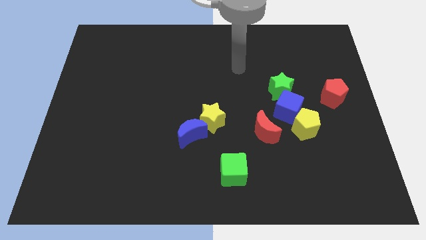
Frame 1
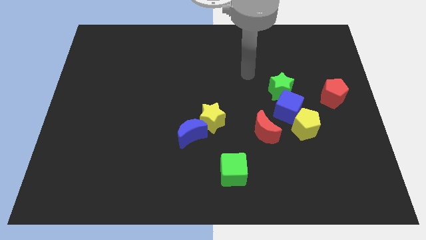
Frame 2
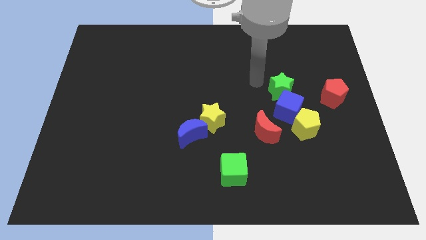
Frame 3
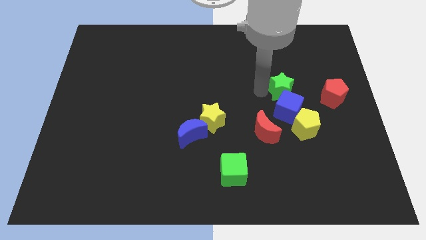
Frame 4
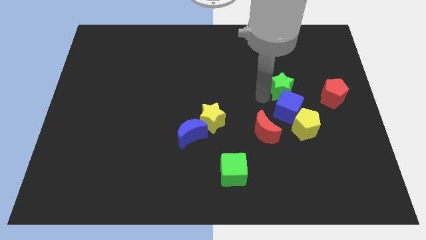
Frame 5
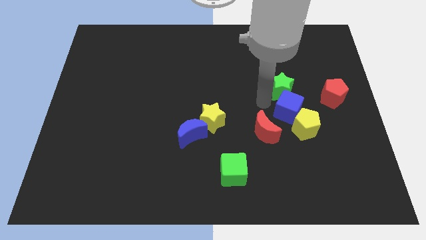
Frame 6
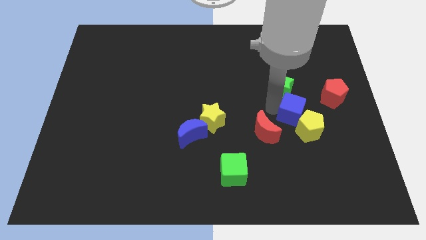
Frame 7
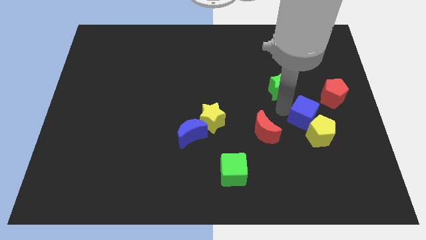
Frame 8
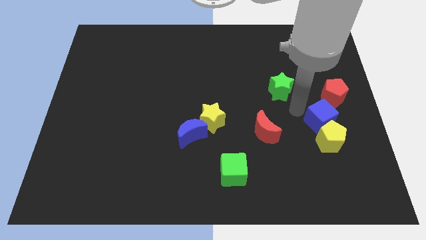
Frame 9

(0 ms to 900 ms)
pull the green star apart from the blue cube

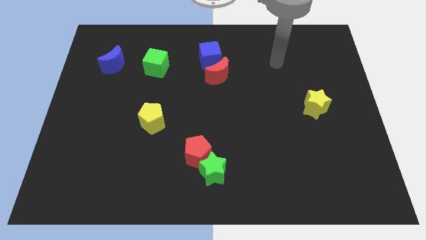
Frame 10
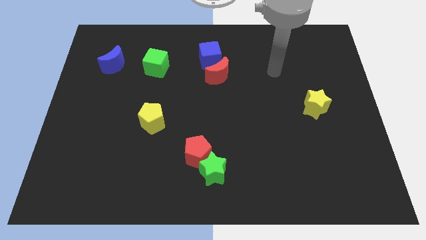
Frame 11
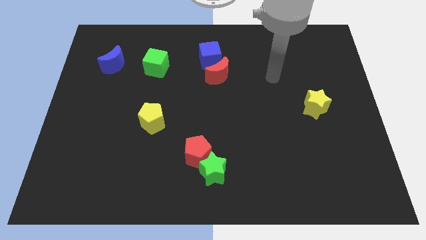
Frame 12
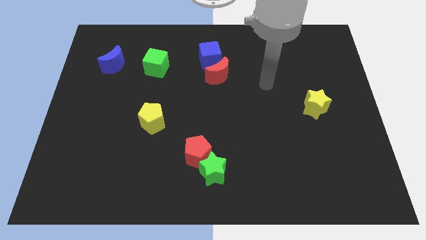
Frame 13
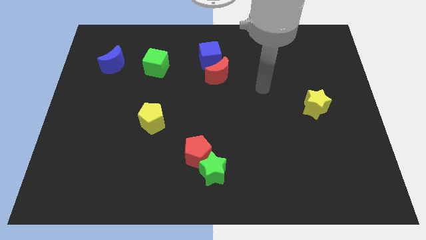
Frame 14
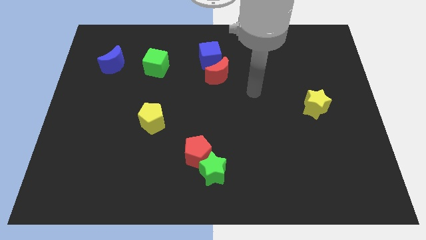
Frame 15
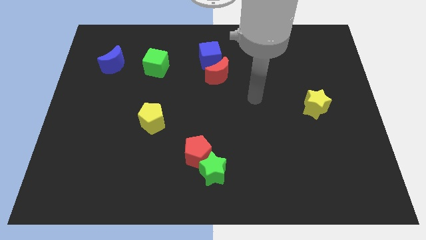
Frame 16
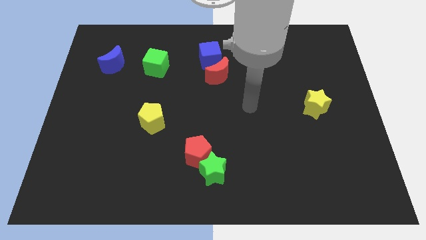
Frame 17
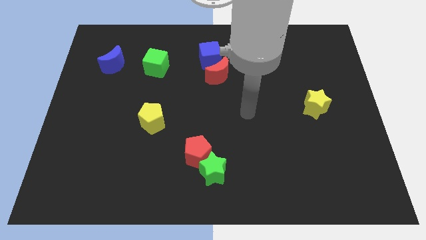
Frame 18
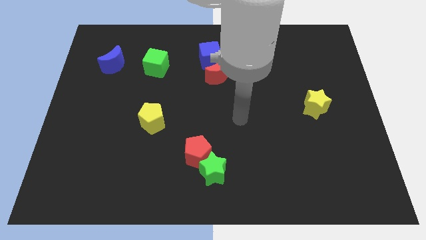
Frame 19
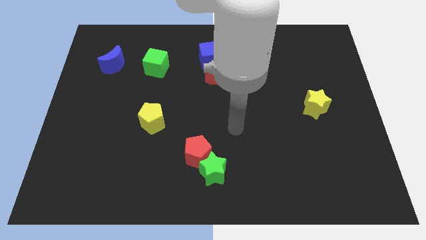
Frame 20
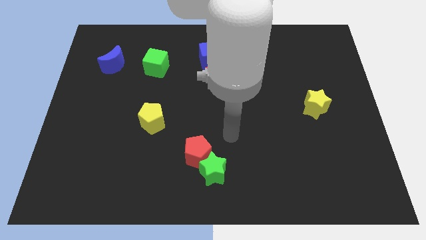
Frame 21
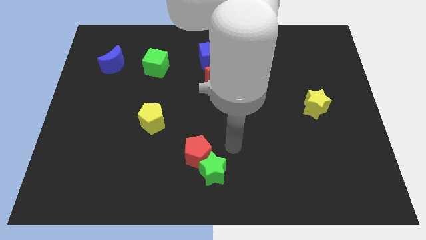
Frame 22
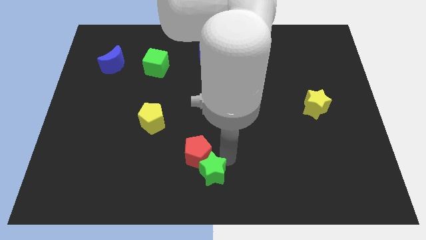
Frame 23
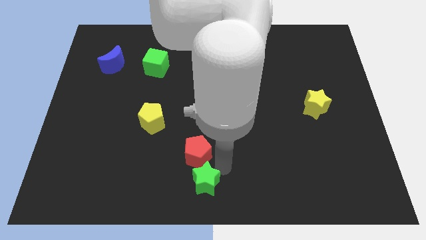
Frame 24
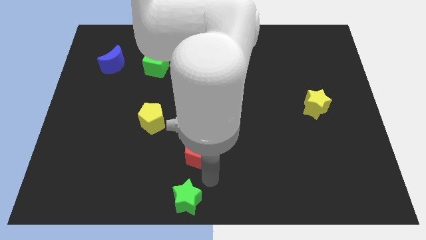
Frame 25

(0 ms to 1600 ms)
separate the red pentagon from the green star

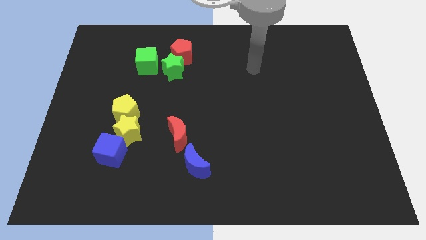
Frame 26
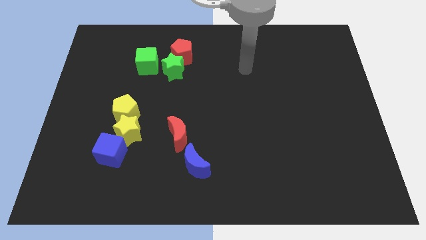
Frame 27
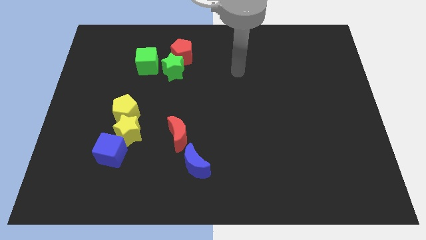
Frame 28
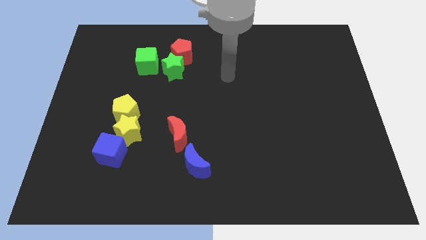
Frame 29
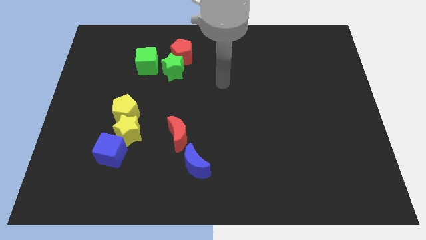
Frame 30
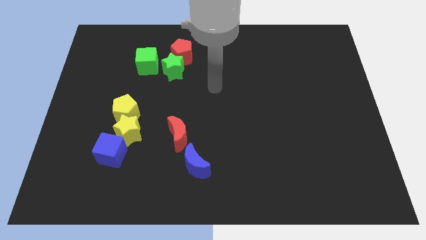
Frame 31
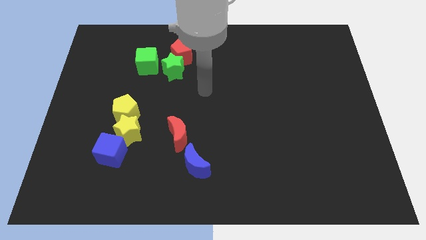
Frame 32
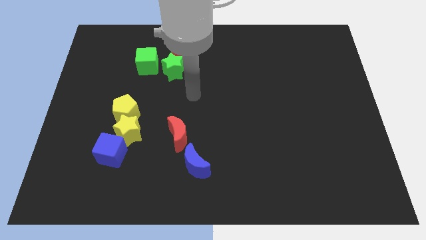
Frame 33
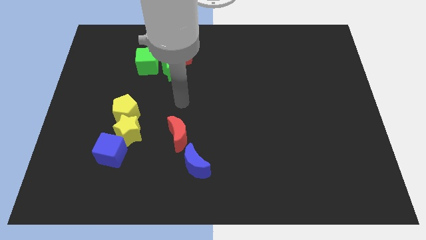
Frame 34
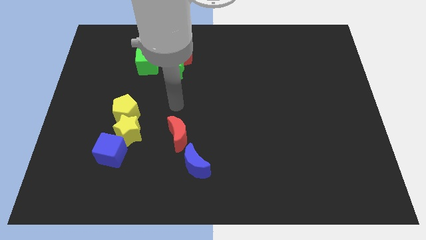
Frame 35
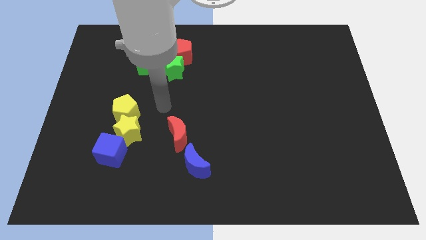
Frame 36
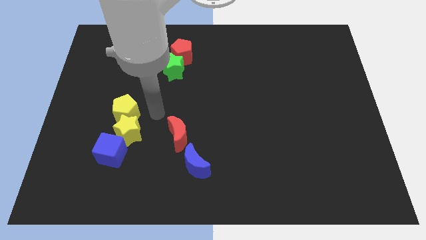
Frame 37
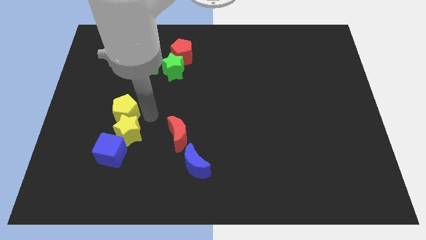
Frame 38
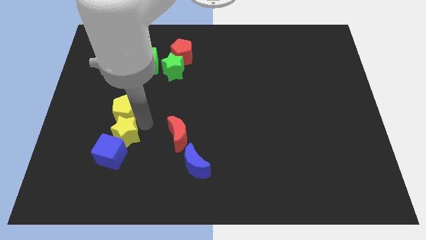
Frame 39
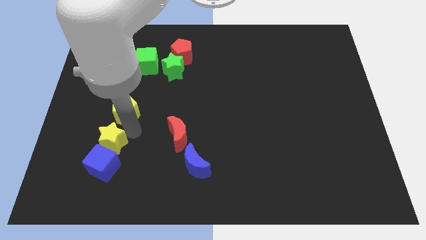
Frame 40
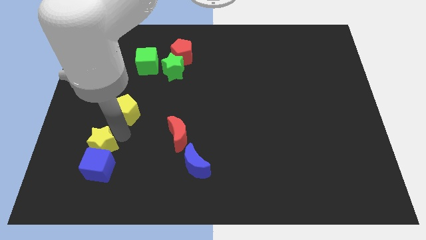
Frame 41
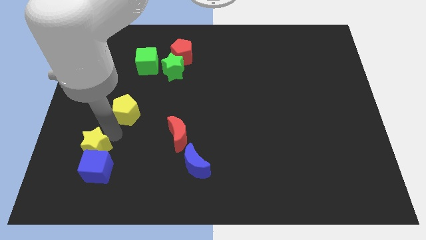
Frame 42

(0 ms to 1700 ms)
move the yellow pentagon away from the yellow star

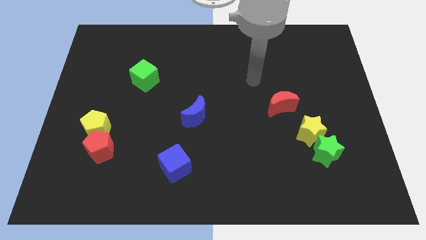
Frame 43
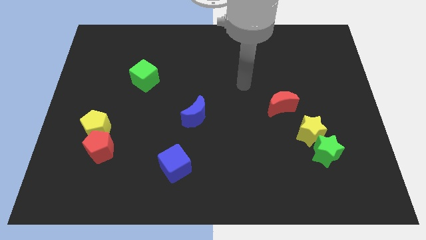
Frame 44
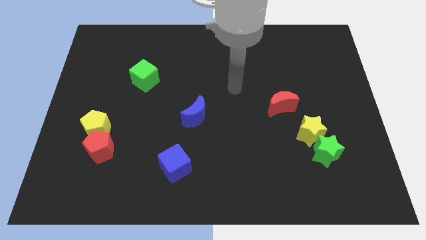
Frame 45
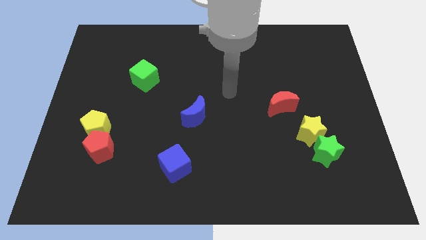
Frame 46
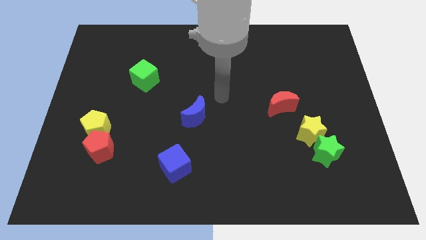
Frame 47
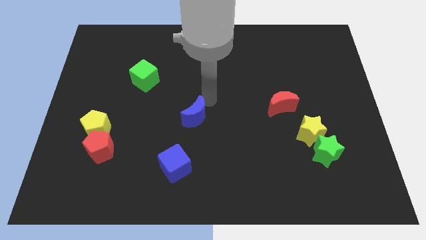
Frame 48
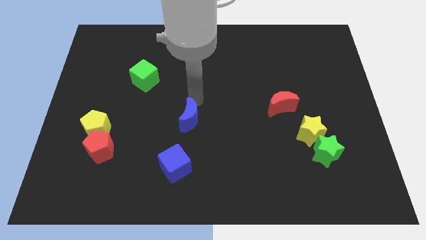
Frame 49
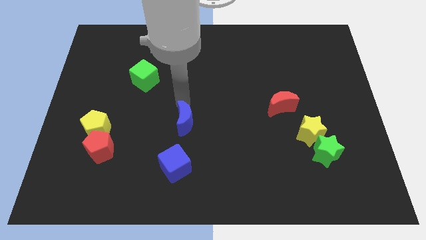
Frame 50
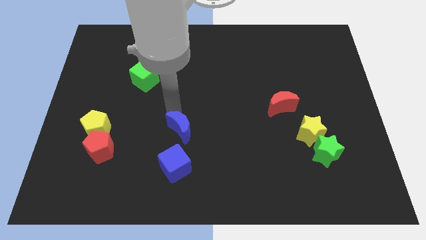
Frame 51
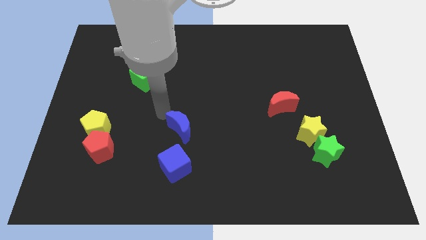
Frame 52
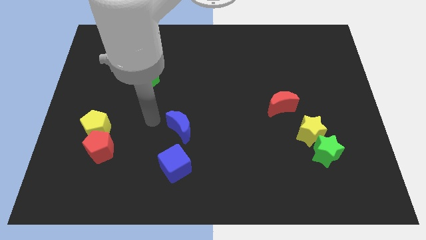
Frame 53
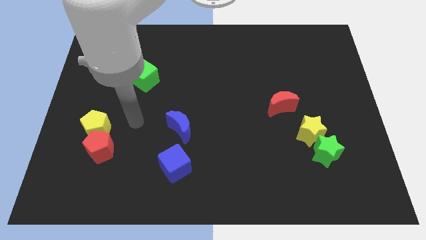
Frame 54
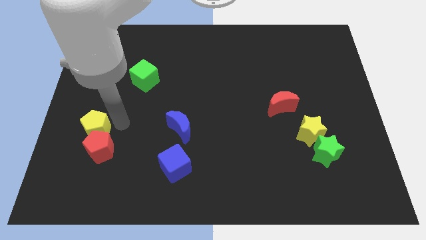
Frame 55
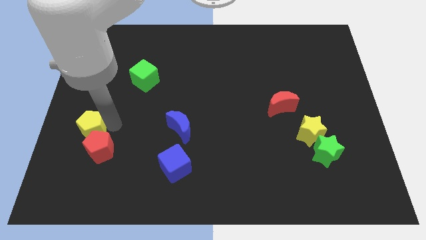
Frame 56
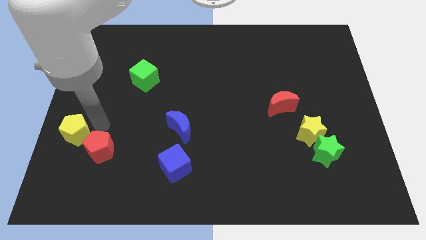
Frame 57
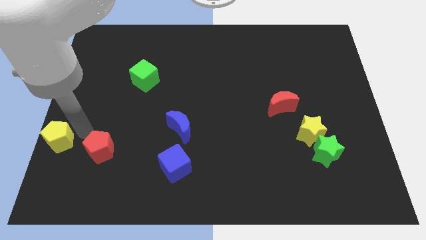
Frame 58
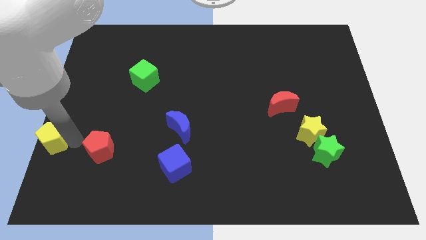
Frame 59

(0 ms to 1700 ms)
separate the red pentagon from the yellow pentagon

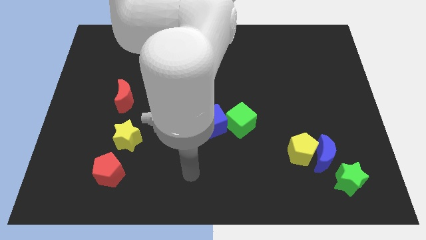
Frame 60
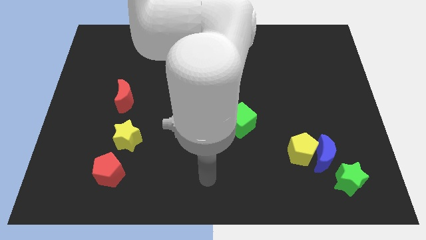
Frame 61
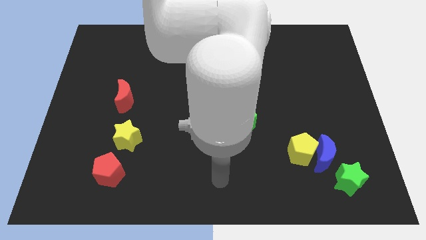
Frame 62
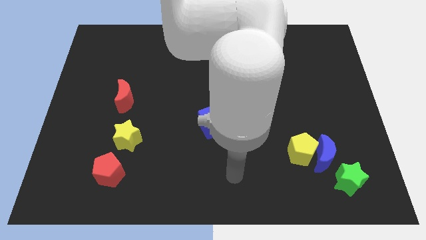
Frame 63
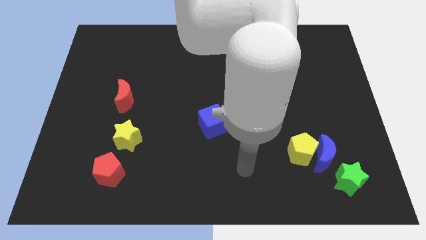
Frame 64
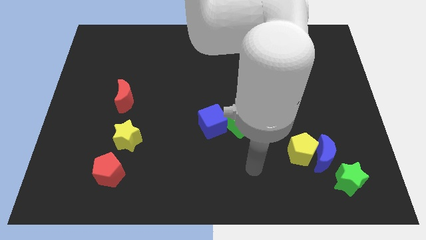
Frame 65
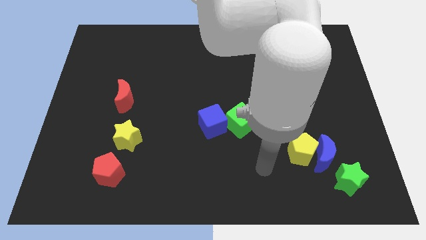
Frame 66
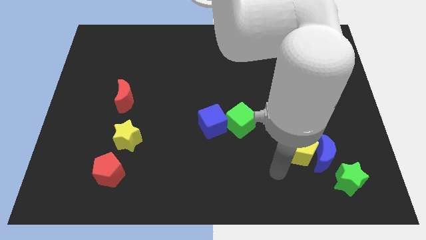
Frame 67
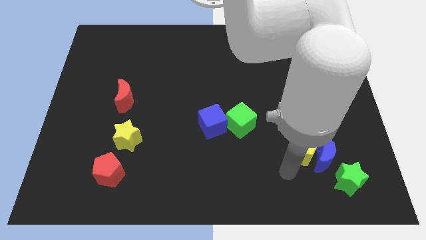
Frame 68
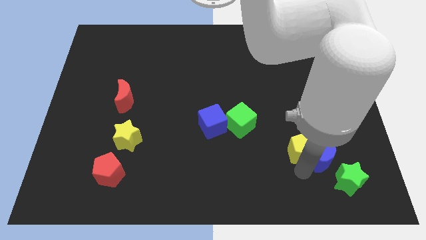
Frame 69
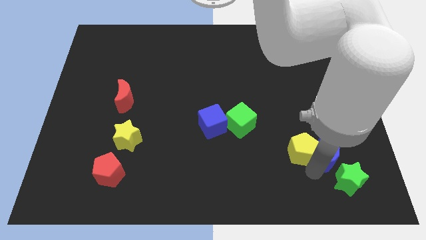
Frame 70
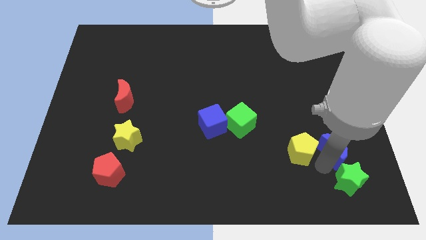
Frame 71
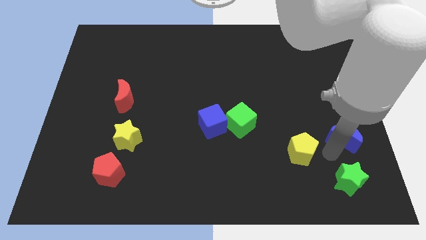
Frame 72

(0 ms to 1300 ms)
pull the yellow pentagon apart from the blue moon

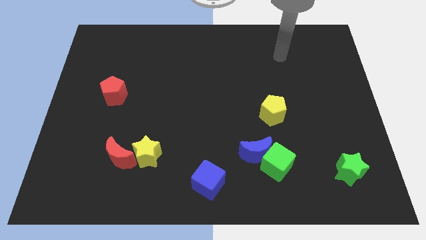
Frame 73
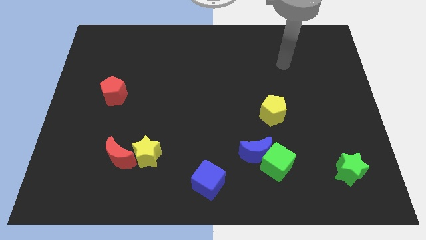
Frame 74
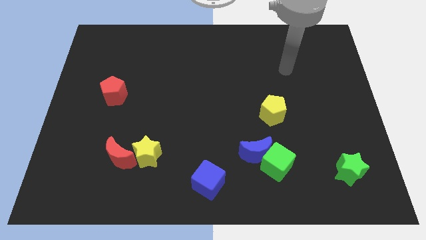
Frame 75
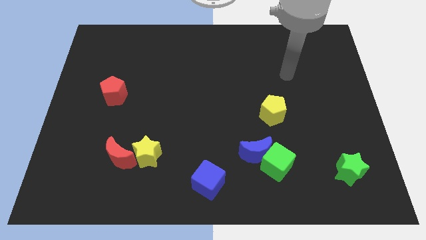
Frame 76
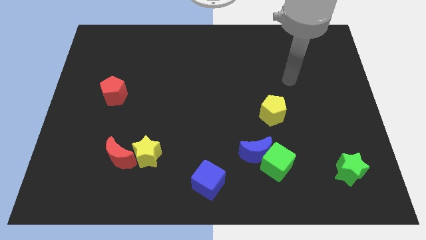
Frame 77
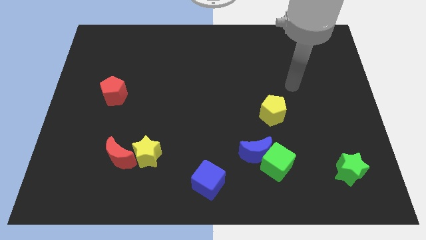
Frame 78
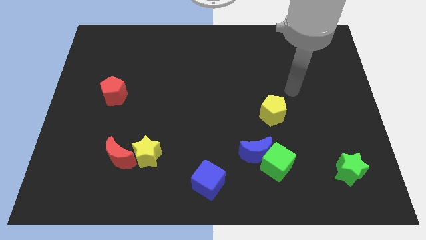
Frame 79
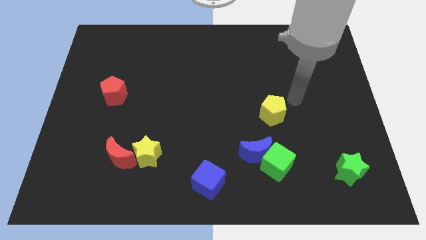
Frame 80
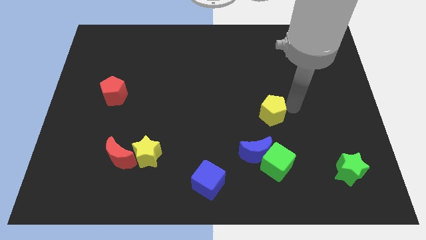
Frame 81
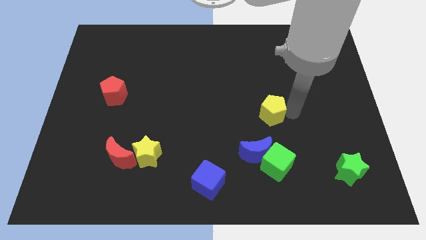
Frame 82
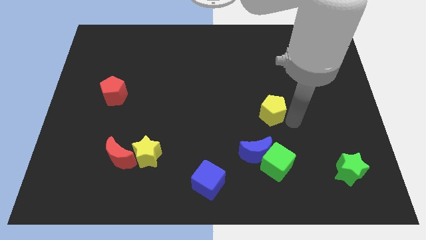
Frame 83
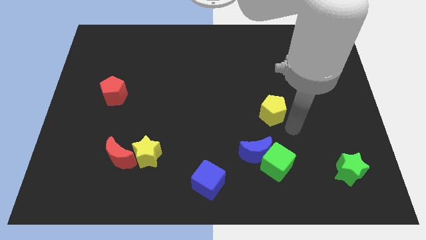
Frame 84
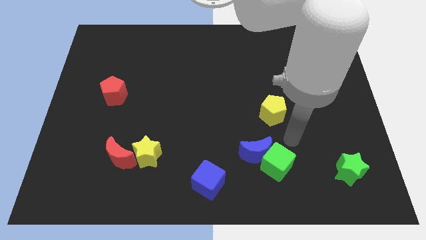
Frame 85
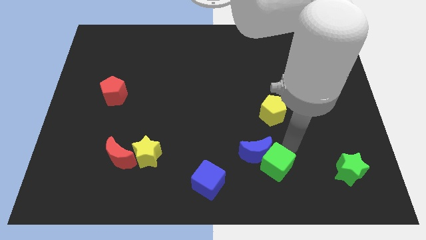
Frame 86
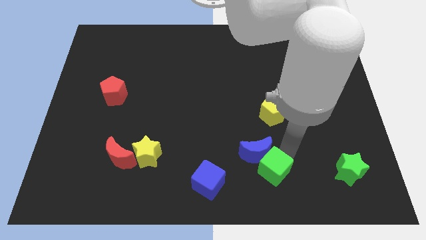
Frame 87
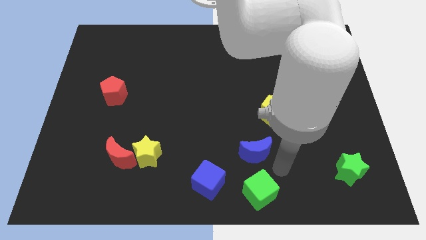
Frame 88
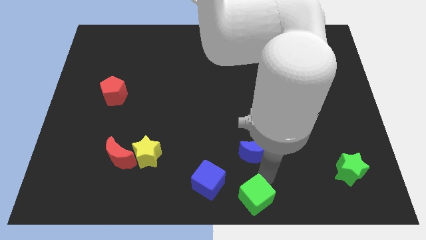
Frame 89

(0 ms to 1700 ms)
pull the blue moon apart from the green cube

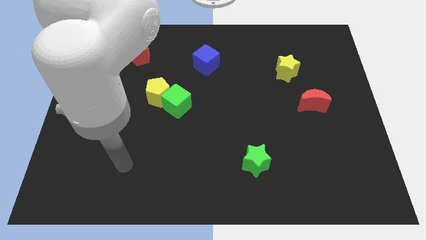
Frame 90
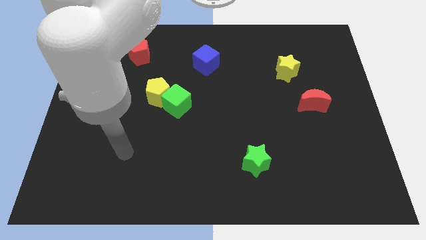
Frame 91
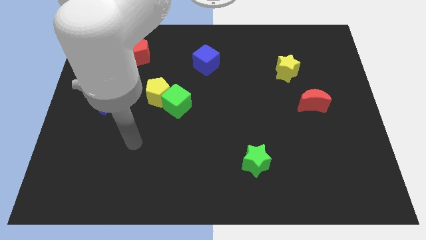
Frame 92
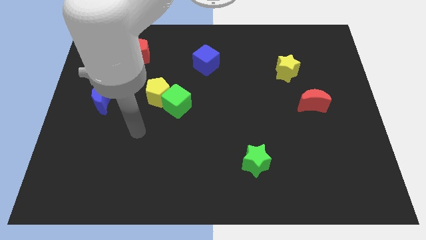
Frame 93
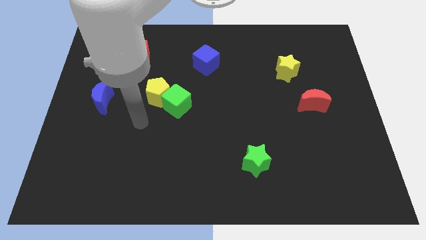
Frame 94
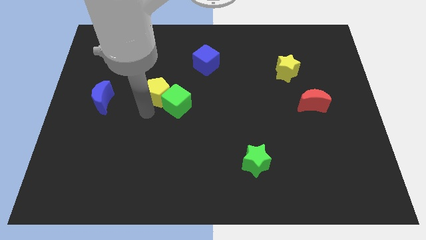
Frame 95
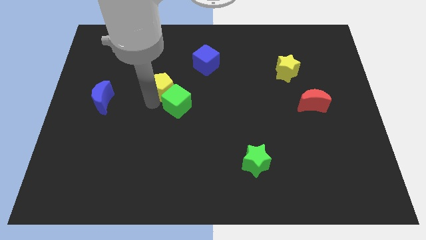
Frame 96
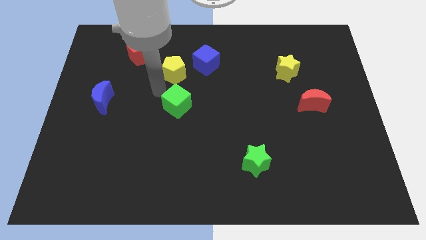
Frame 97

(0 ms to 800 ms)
pull the green cube apart from the yellow pentagon
